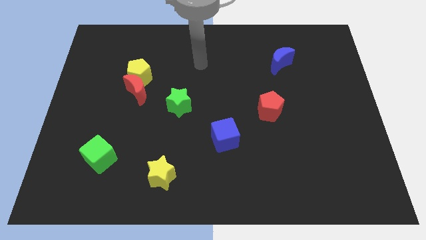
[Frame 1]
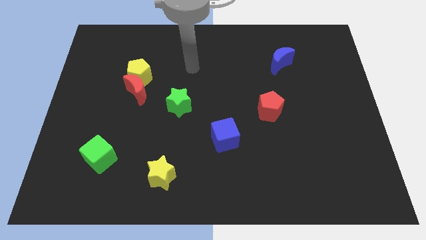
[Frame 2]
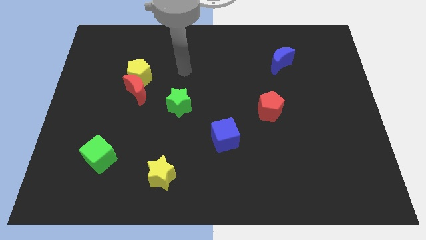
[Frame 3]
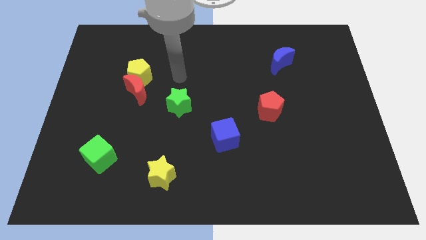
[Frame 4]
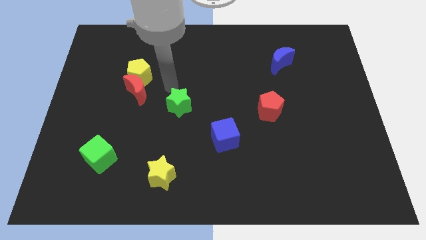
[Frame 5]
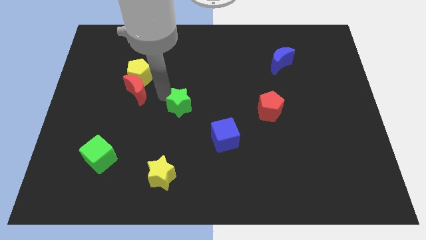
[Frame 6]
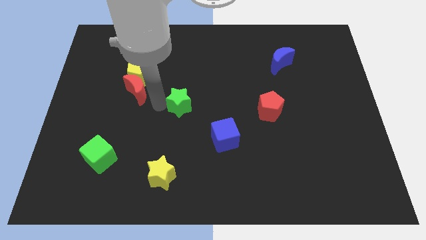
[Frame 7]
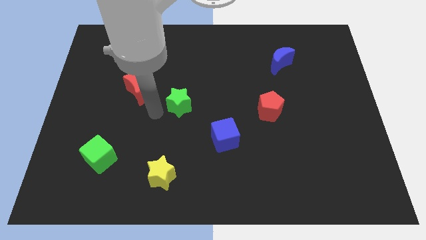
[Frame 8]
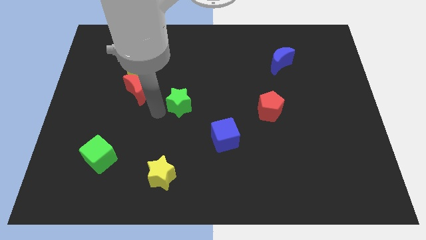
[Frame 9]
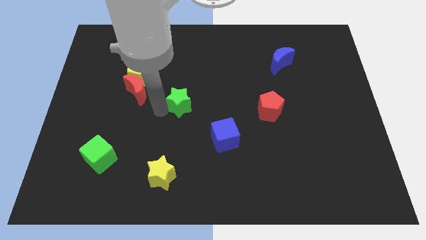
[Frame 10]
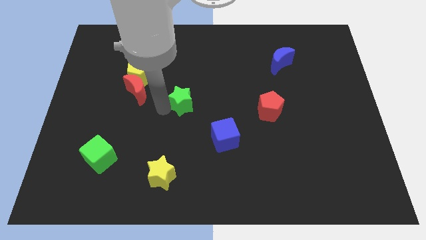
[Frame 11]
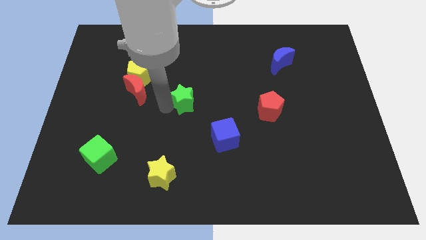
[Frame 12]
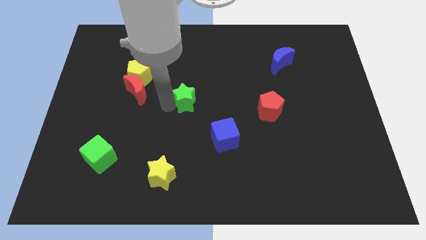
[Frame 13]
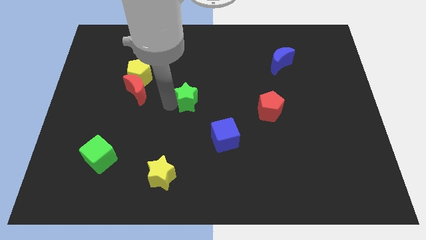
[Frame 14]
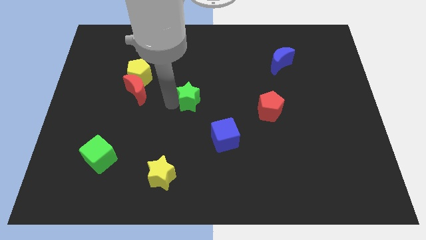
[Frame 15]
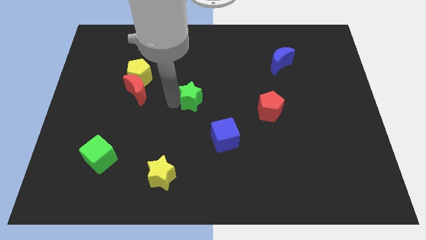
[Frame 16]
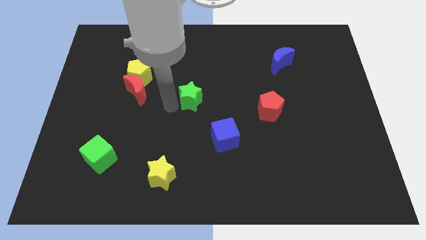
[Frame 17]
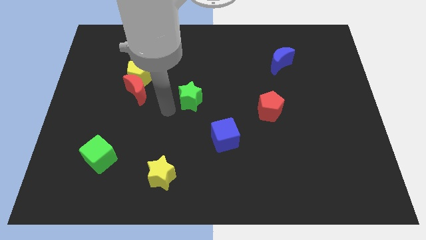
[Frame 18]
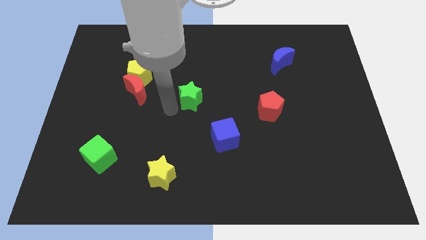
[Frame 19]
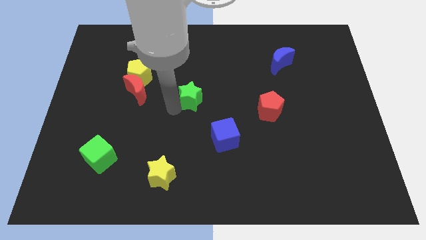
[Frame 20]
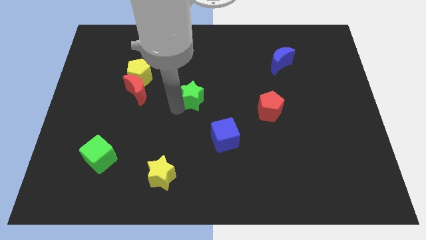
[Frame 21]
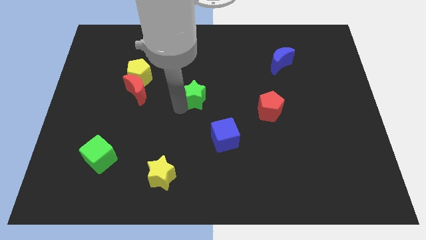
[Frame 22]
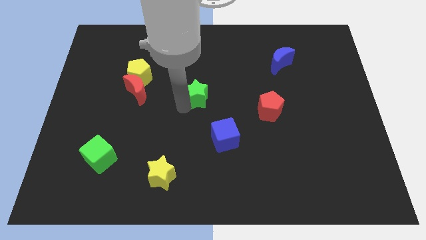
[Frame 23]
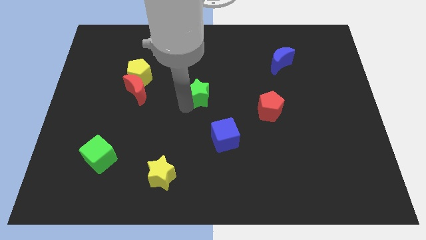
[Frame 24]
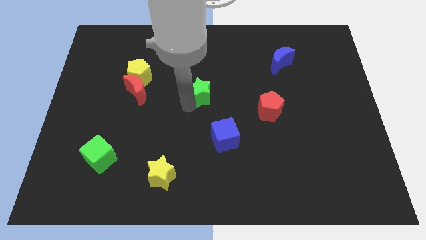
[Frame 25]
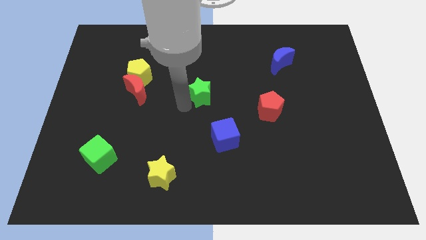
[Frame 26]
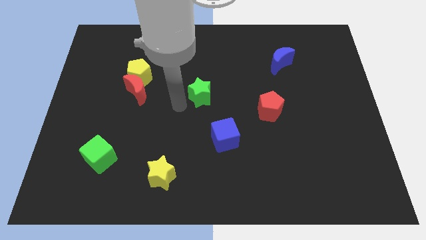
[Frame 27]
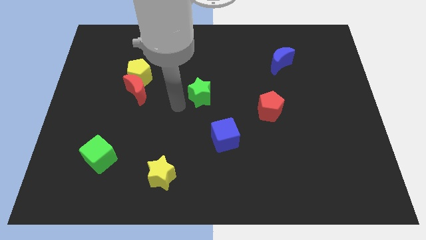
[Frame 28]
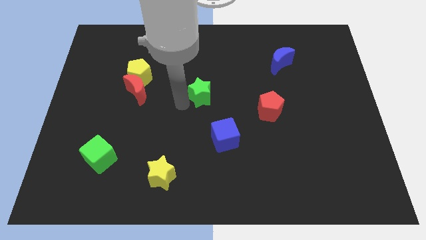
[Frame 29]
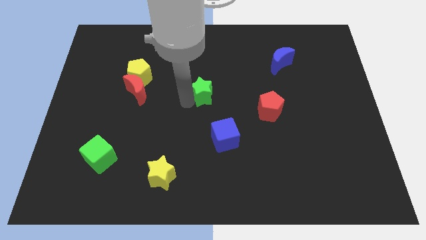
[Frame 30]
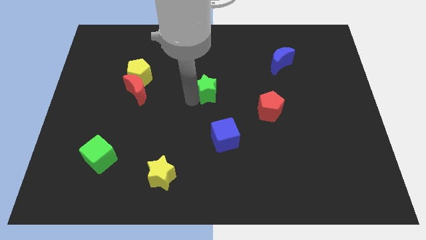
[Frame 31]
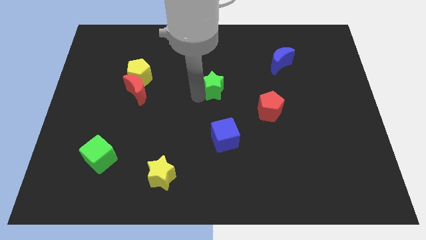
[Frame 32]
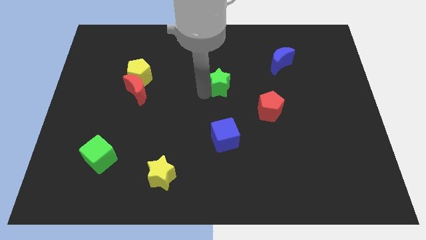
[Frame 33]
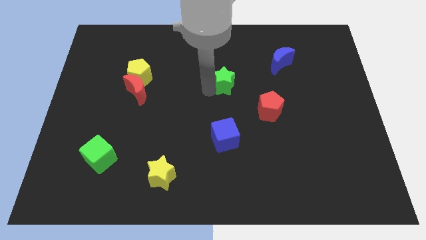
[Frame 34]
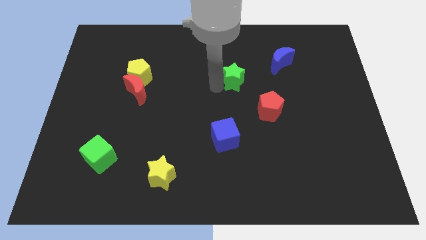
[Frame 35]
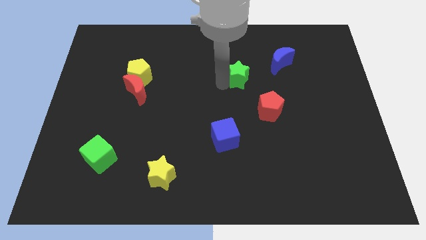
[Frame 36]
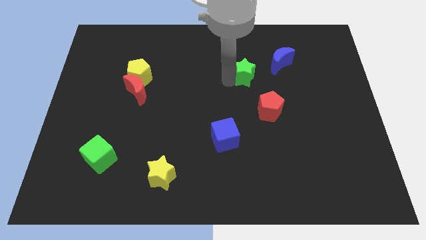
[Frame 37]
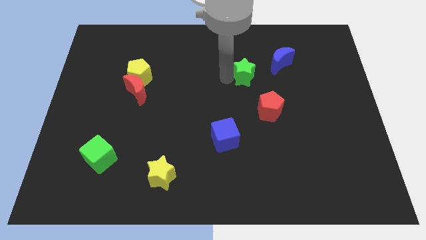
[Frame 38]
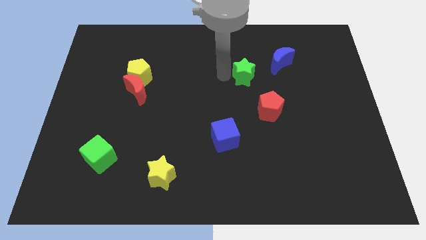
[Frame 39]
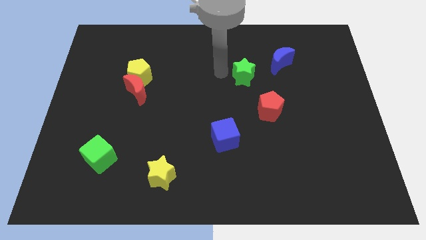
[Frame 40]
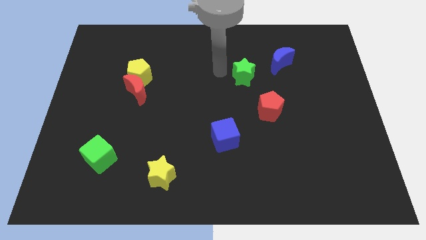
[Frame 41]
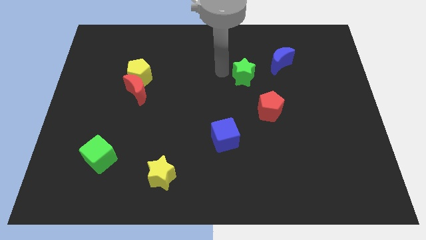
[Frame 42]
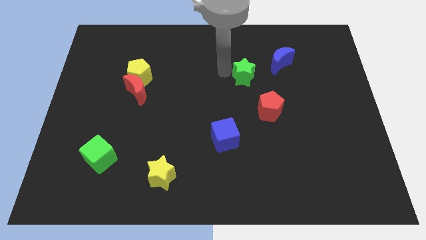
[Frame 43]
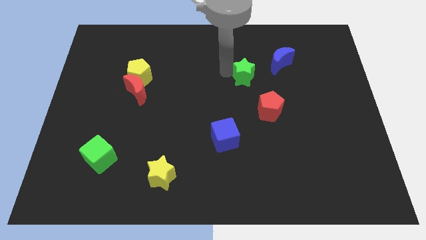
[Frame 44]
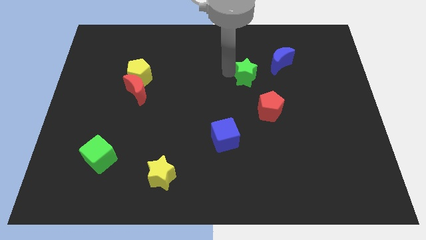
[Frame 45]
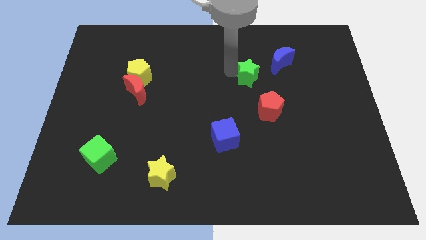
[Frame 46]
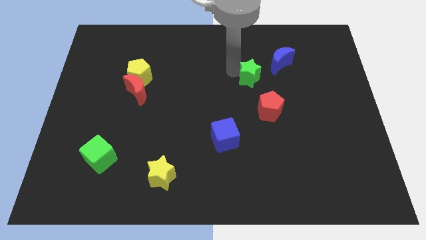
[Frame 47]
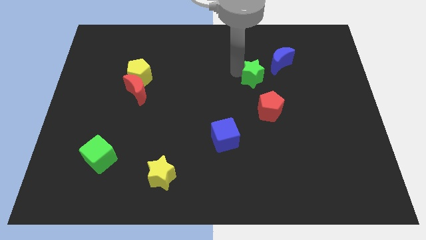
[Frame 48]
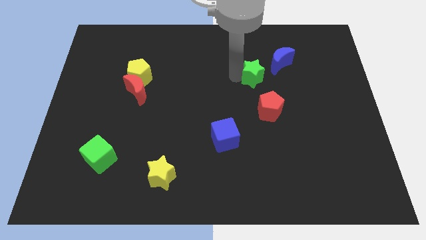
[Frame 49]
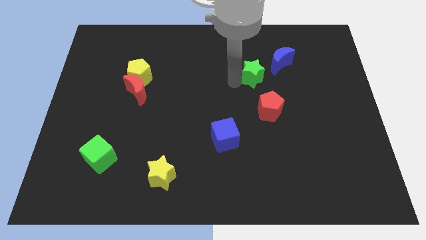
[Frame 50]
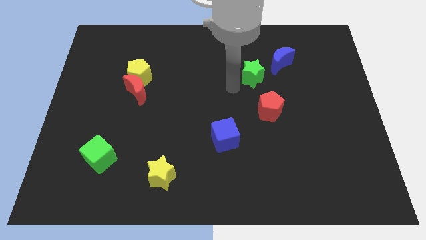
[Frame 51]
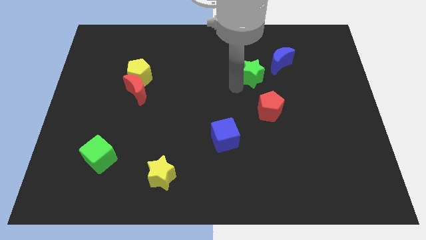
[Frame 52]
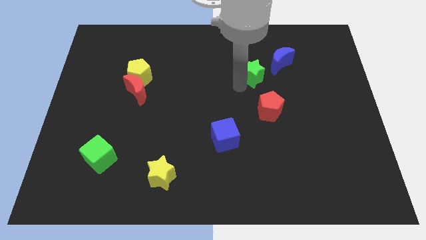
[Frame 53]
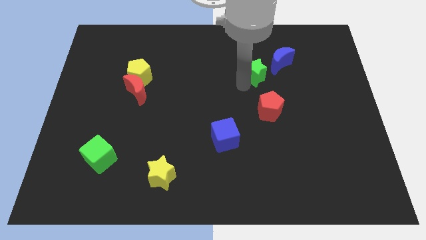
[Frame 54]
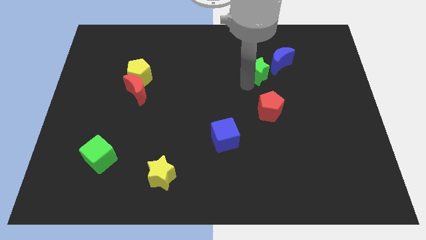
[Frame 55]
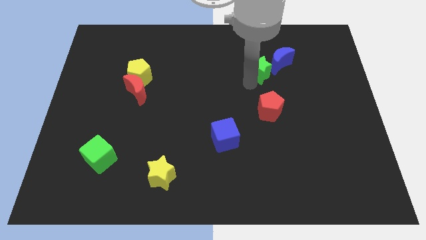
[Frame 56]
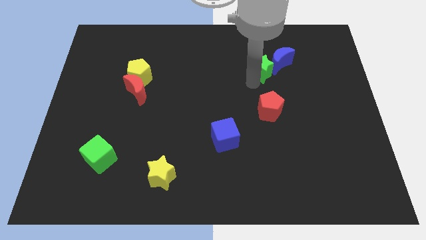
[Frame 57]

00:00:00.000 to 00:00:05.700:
push the green star to the blue moon
